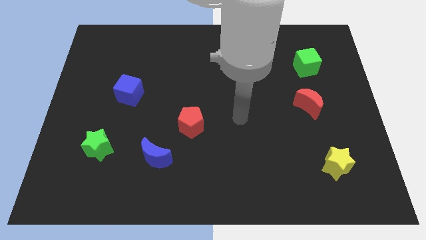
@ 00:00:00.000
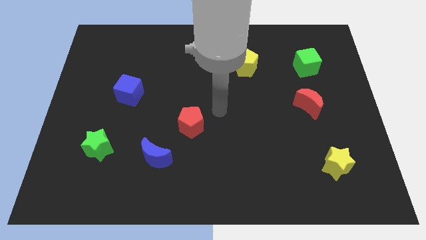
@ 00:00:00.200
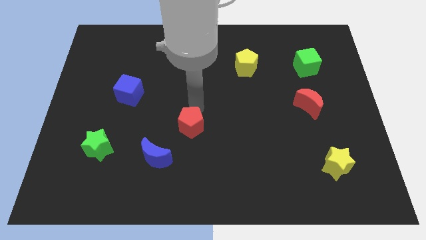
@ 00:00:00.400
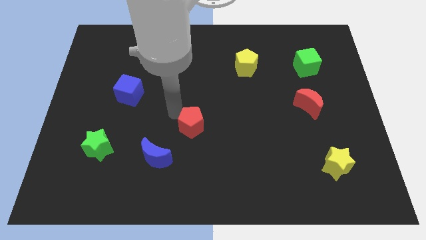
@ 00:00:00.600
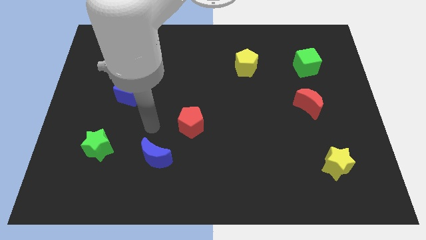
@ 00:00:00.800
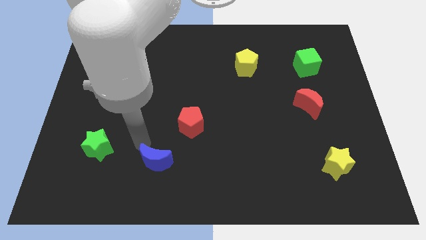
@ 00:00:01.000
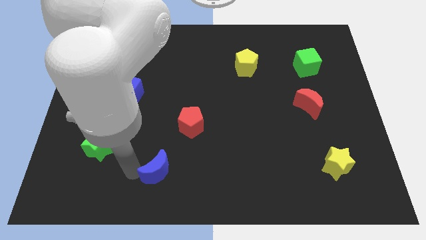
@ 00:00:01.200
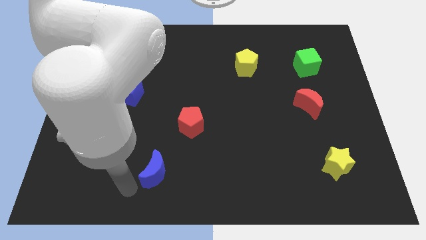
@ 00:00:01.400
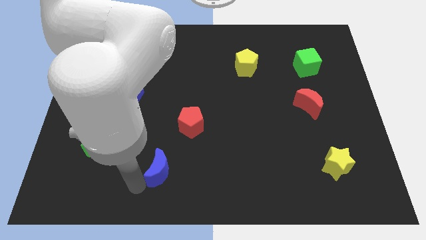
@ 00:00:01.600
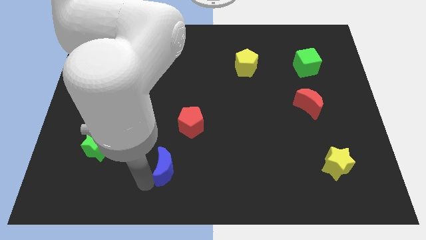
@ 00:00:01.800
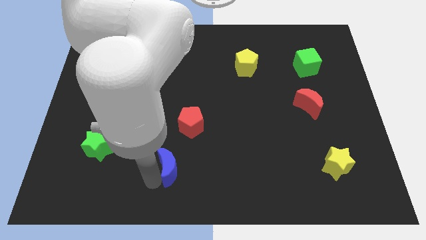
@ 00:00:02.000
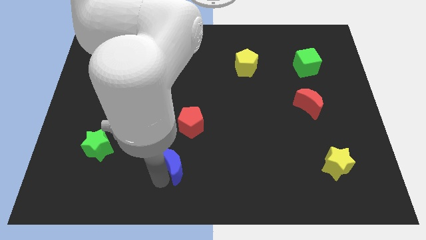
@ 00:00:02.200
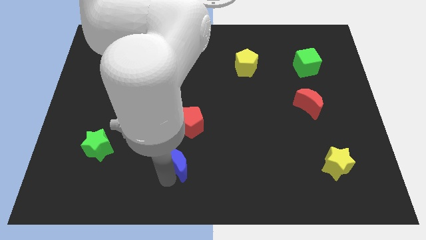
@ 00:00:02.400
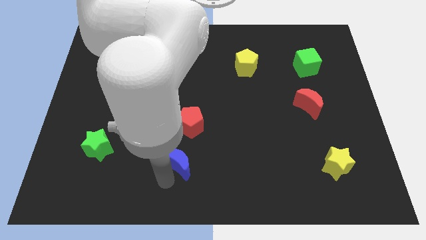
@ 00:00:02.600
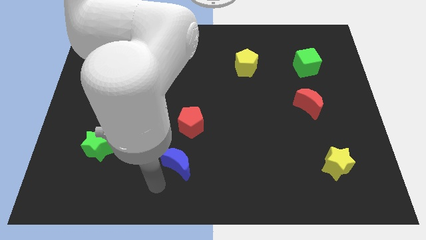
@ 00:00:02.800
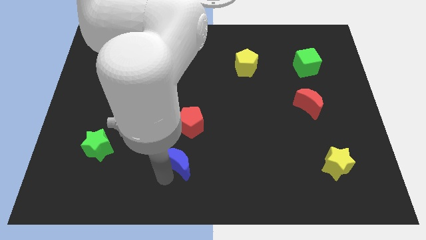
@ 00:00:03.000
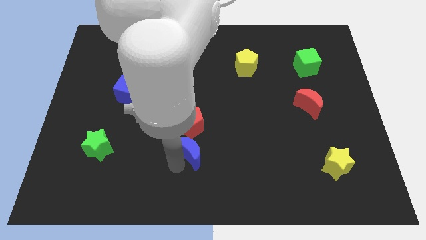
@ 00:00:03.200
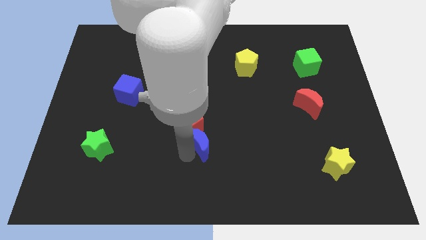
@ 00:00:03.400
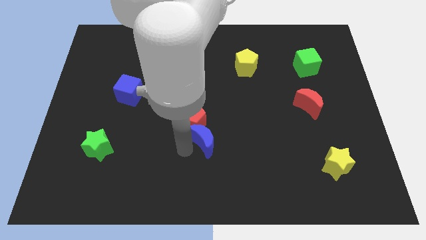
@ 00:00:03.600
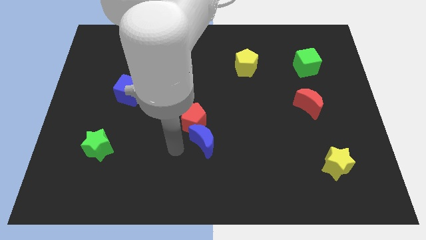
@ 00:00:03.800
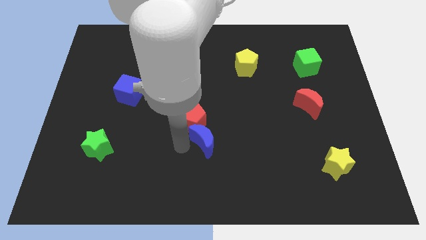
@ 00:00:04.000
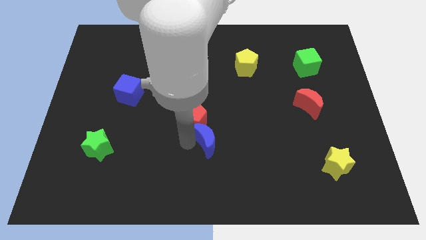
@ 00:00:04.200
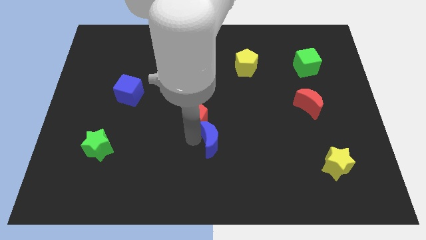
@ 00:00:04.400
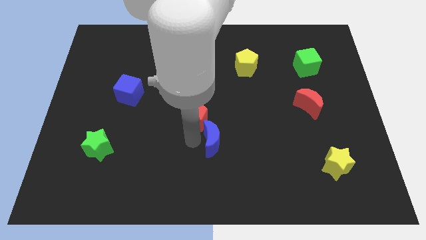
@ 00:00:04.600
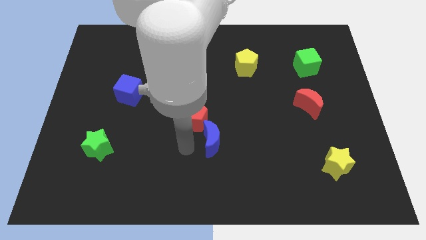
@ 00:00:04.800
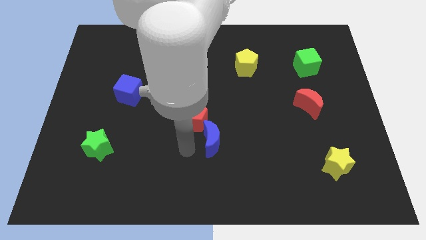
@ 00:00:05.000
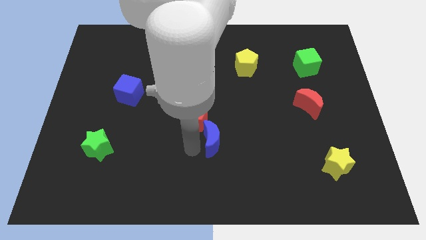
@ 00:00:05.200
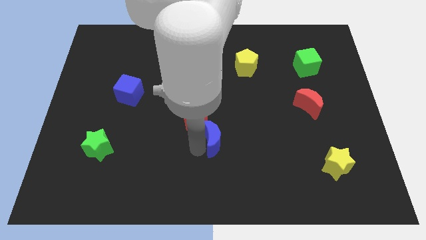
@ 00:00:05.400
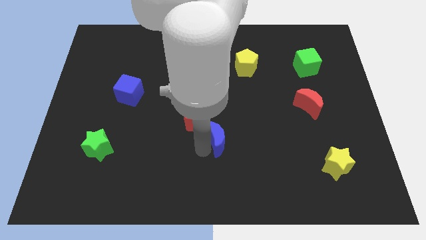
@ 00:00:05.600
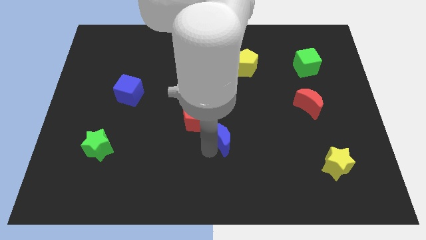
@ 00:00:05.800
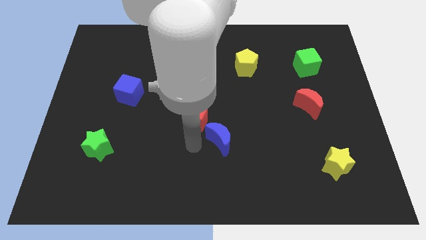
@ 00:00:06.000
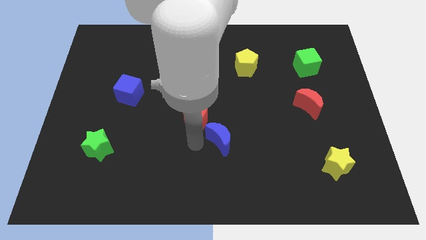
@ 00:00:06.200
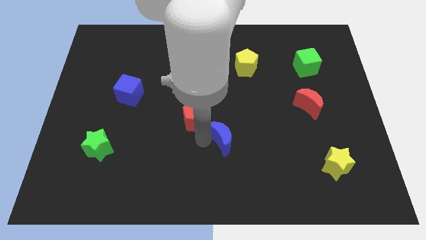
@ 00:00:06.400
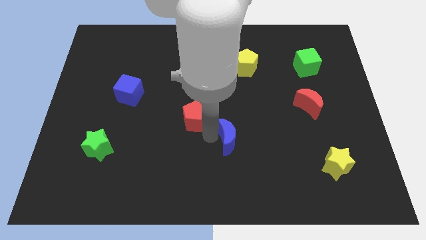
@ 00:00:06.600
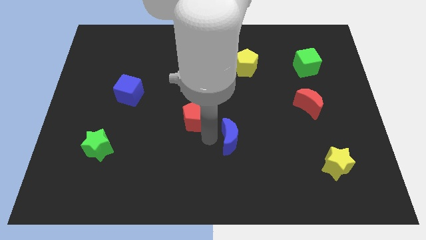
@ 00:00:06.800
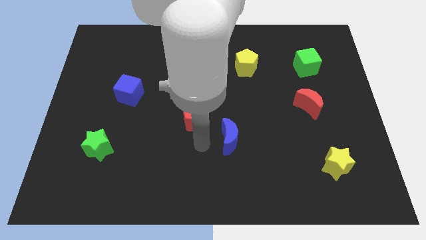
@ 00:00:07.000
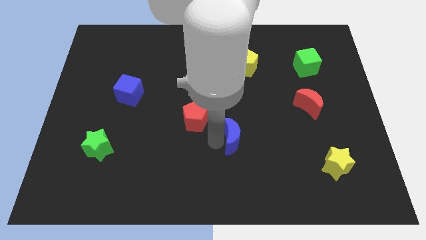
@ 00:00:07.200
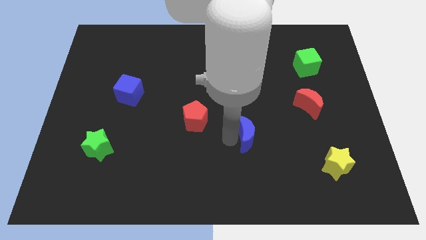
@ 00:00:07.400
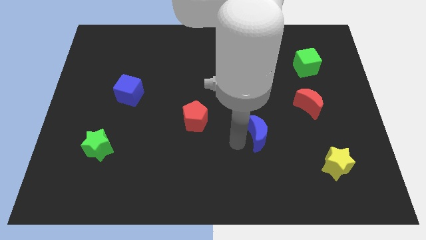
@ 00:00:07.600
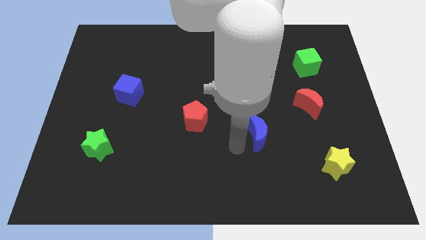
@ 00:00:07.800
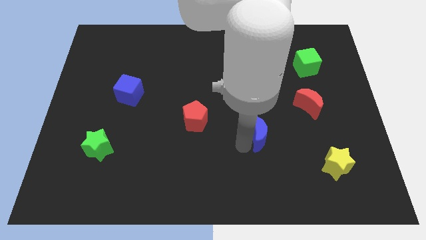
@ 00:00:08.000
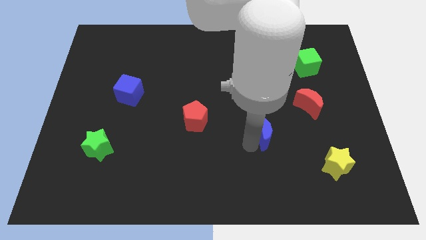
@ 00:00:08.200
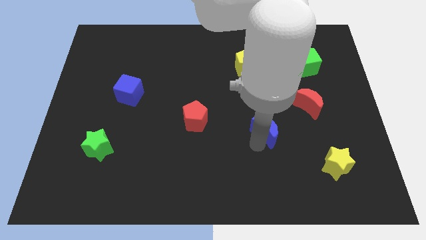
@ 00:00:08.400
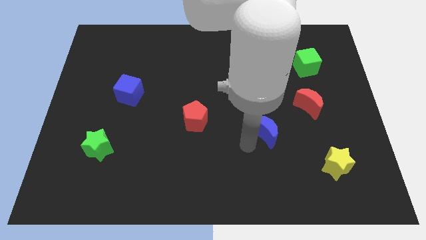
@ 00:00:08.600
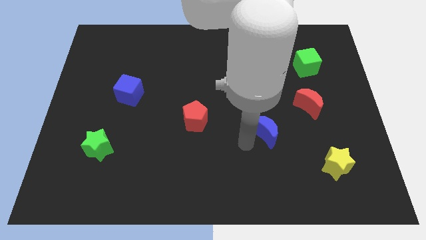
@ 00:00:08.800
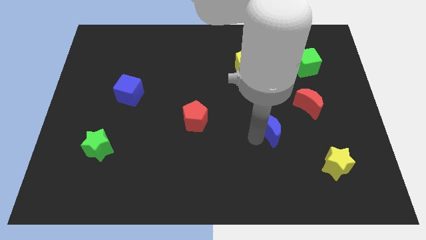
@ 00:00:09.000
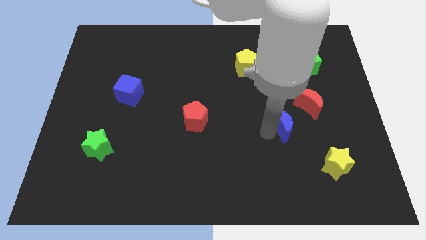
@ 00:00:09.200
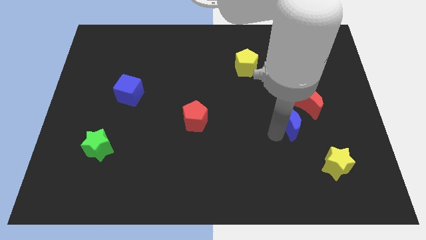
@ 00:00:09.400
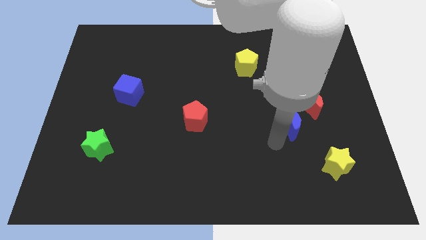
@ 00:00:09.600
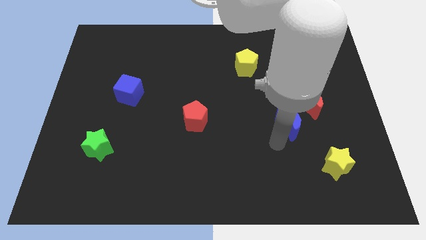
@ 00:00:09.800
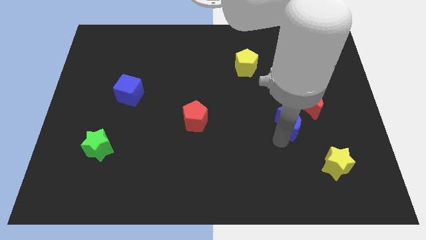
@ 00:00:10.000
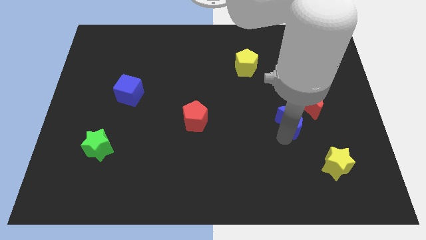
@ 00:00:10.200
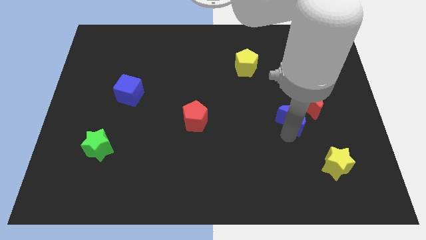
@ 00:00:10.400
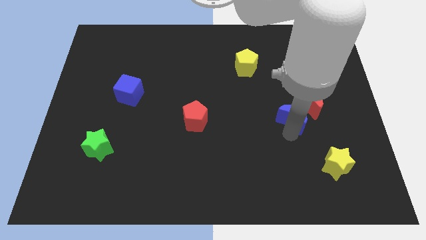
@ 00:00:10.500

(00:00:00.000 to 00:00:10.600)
move the blue moon towards the red moon

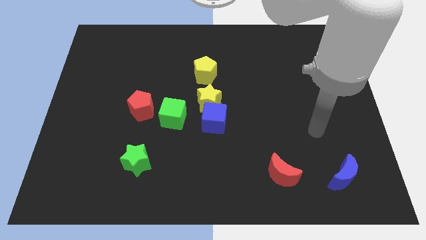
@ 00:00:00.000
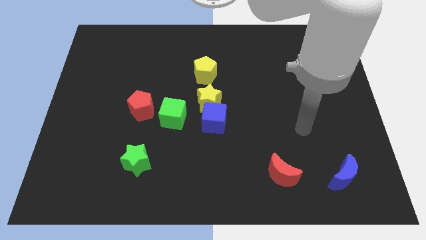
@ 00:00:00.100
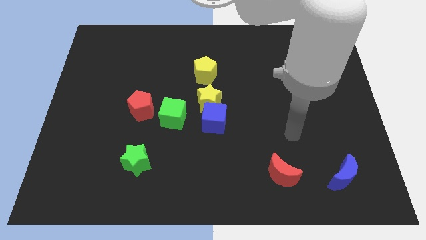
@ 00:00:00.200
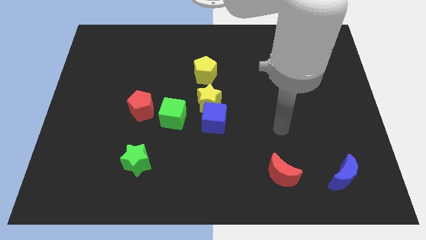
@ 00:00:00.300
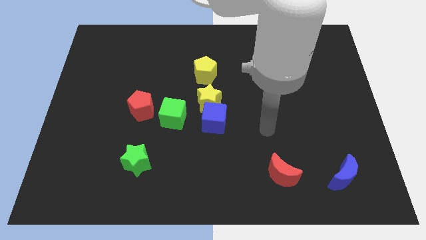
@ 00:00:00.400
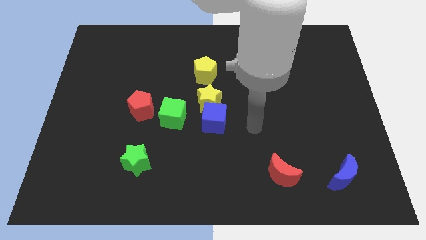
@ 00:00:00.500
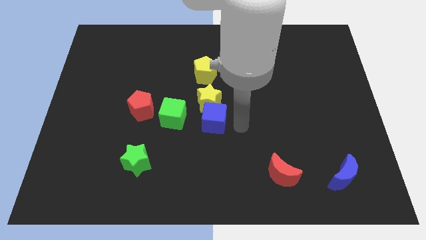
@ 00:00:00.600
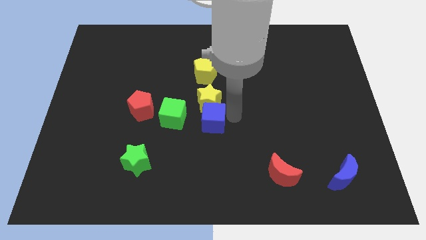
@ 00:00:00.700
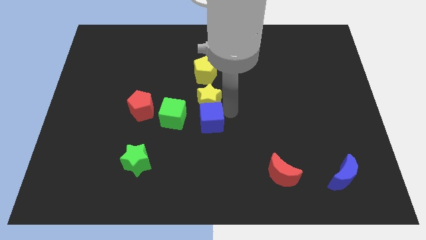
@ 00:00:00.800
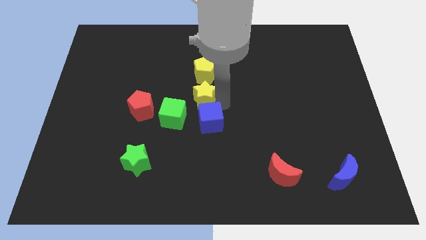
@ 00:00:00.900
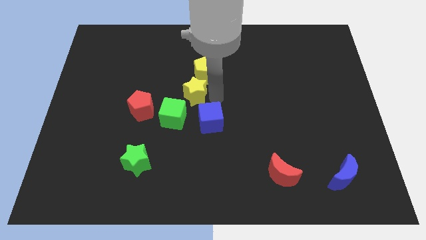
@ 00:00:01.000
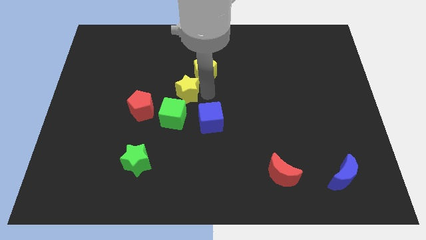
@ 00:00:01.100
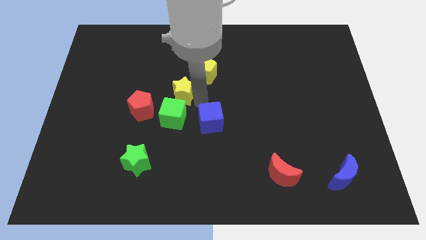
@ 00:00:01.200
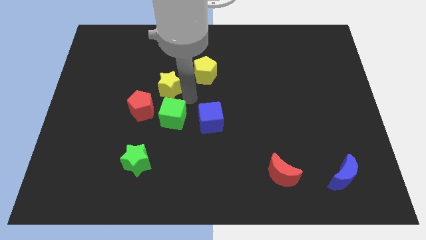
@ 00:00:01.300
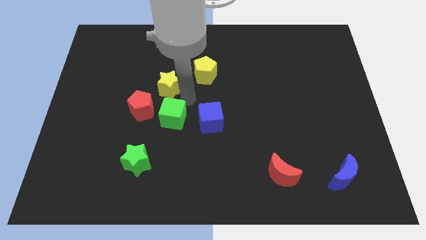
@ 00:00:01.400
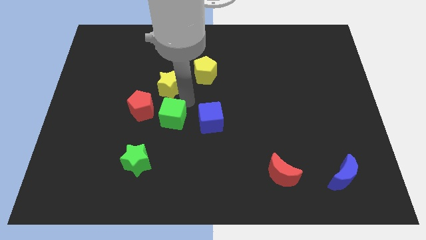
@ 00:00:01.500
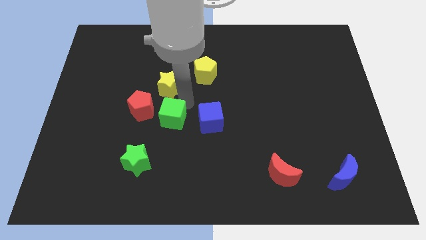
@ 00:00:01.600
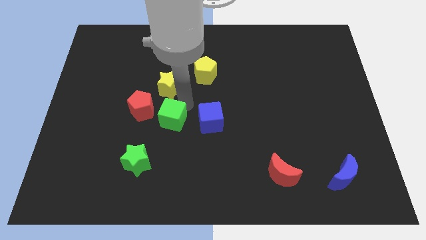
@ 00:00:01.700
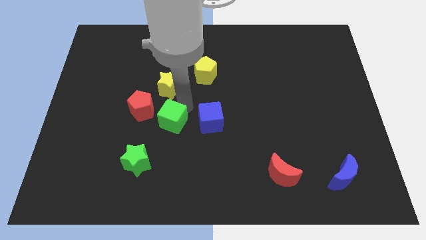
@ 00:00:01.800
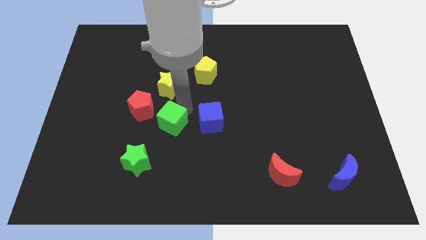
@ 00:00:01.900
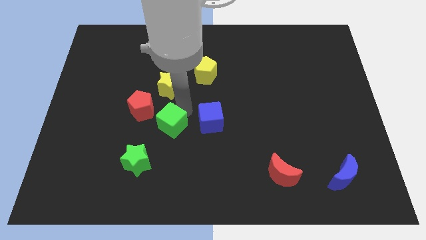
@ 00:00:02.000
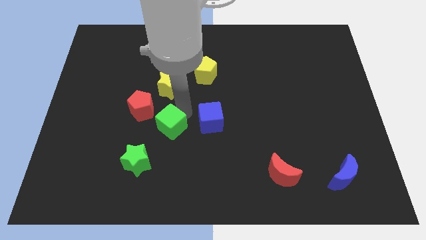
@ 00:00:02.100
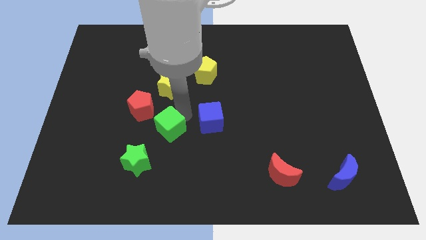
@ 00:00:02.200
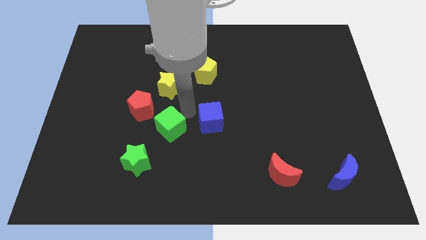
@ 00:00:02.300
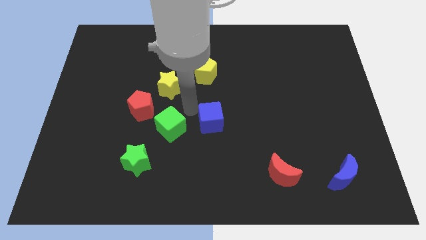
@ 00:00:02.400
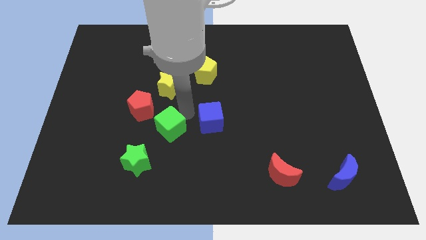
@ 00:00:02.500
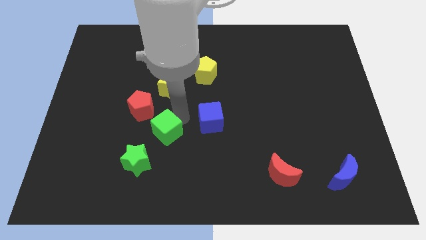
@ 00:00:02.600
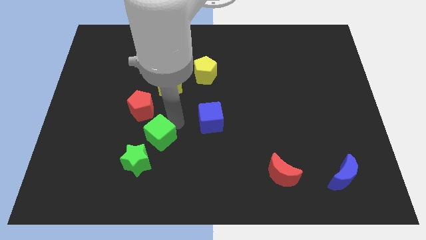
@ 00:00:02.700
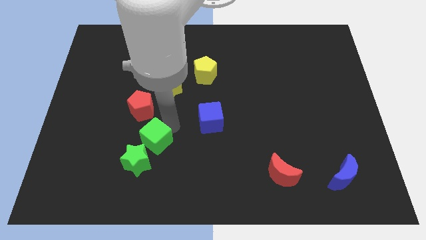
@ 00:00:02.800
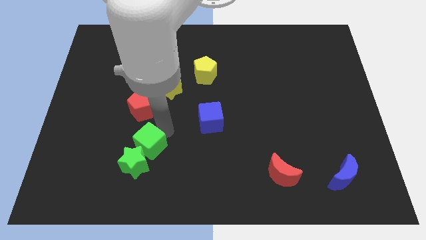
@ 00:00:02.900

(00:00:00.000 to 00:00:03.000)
put the green cube close to the green star
